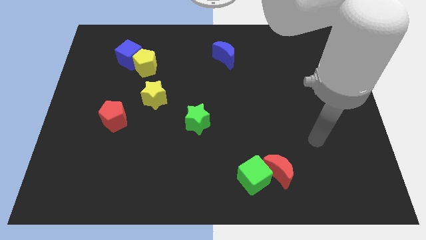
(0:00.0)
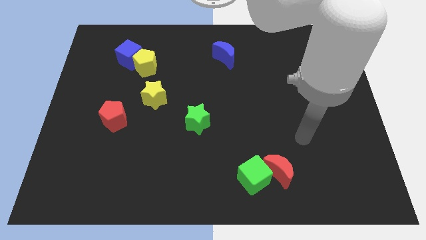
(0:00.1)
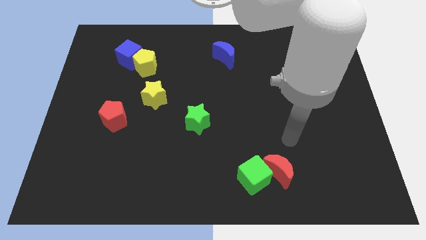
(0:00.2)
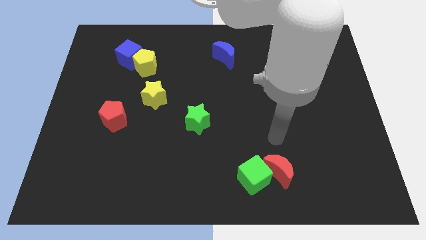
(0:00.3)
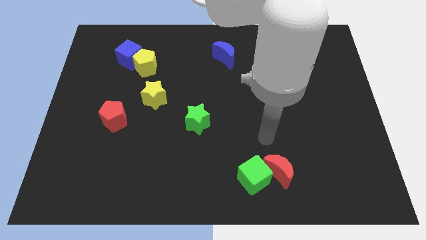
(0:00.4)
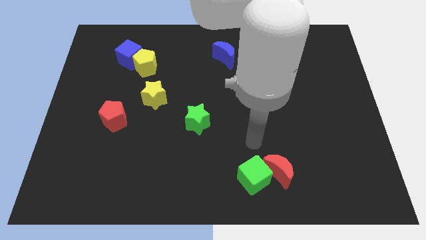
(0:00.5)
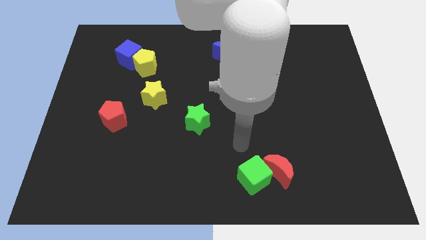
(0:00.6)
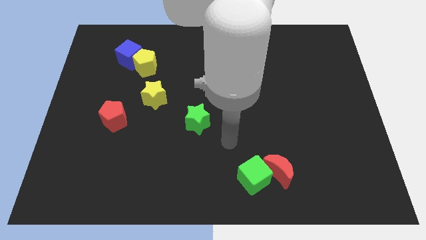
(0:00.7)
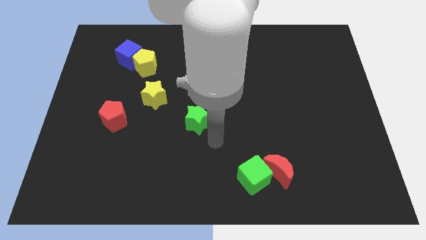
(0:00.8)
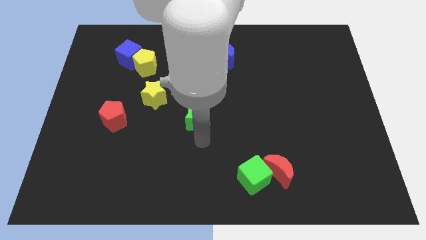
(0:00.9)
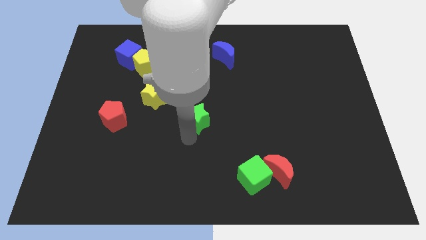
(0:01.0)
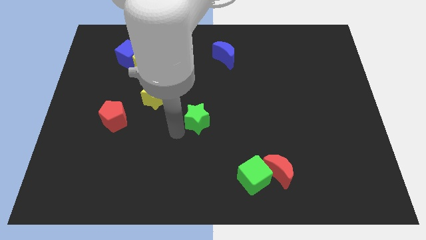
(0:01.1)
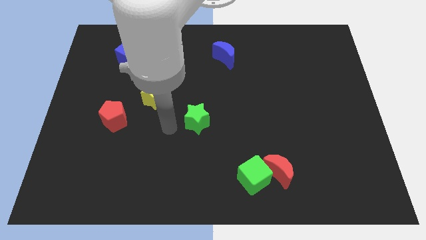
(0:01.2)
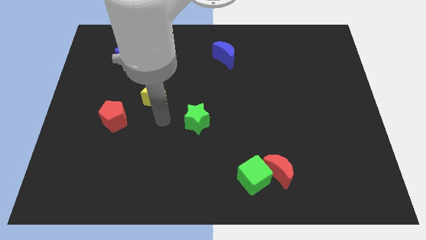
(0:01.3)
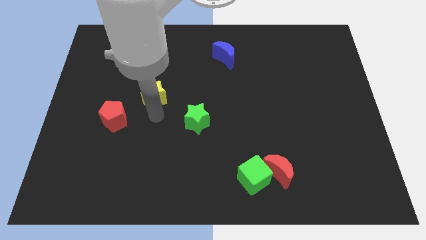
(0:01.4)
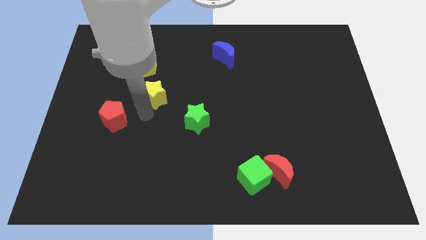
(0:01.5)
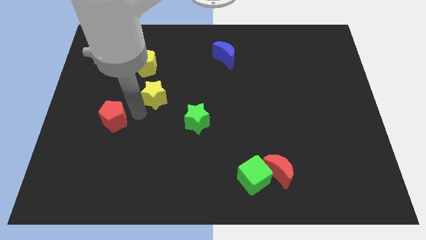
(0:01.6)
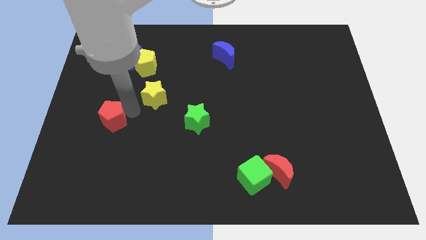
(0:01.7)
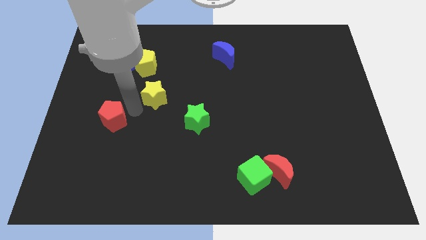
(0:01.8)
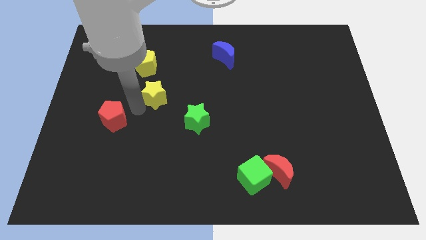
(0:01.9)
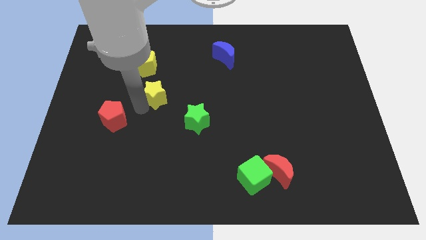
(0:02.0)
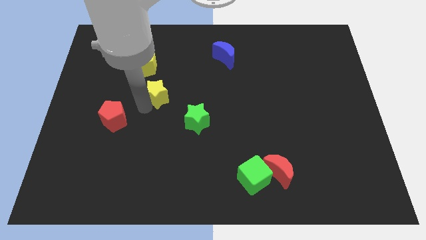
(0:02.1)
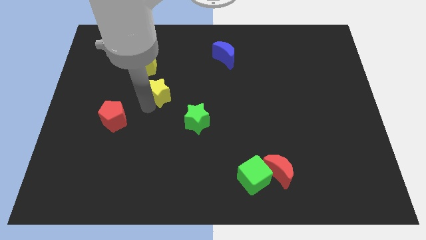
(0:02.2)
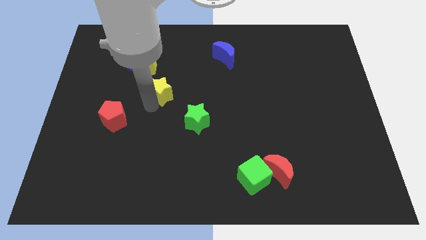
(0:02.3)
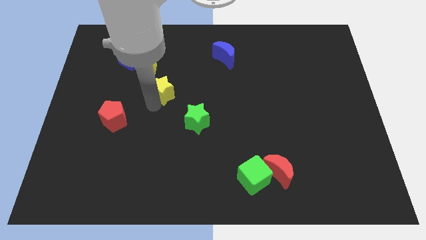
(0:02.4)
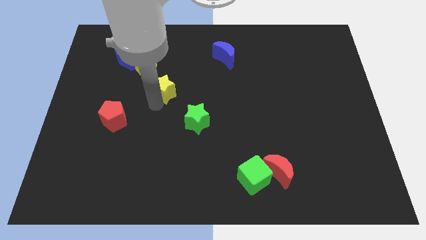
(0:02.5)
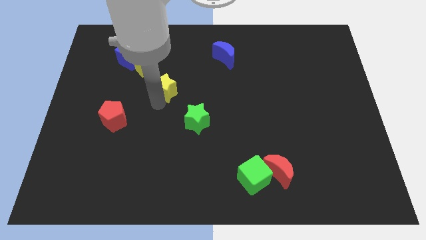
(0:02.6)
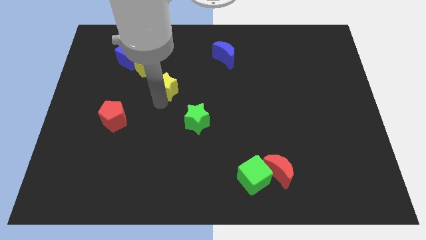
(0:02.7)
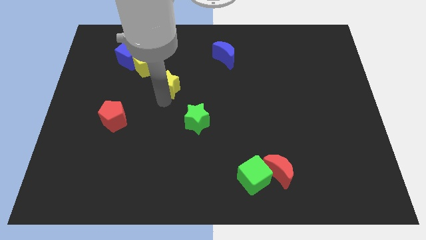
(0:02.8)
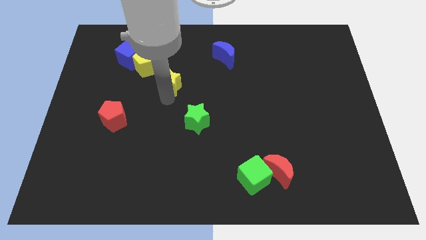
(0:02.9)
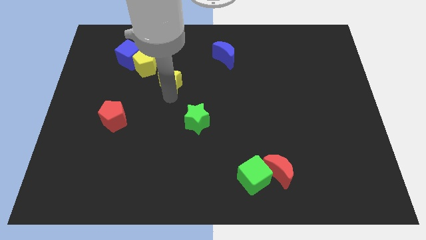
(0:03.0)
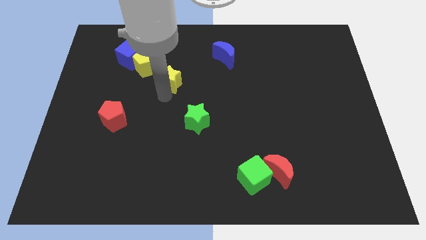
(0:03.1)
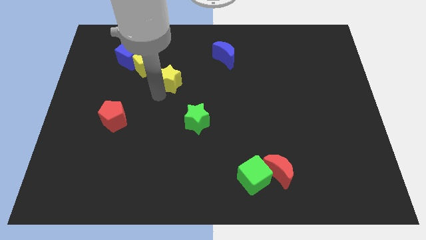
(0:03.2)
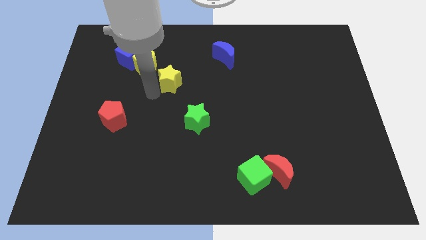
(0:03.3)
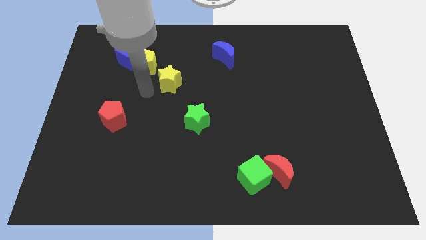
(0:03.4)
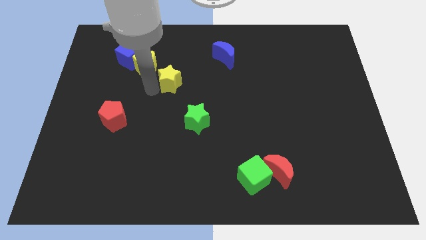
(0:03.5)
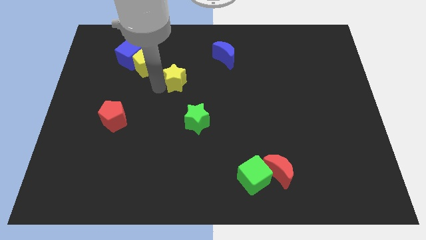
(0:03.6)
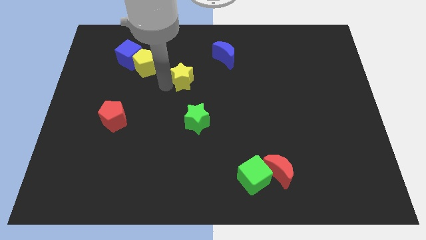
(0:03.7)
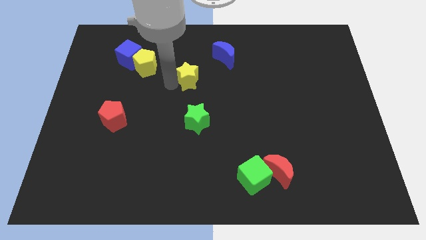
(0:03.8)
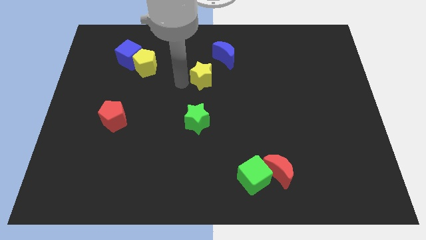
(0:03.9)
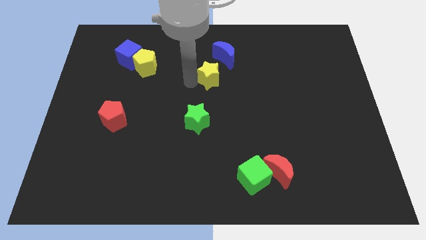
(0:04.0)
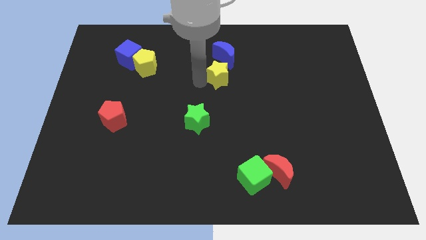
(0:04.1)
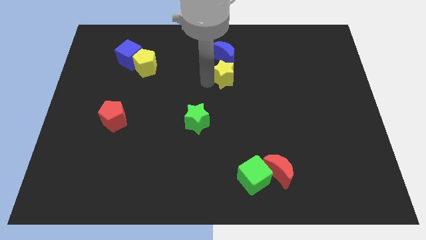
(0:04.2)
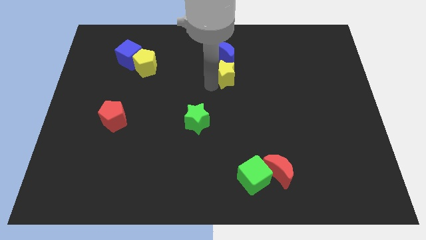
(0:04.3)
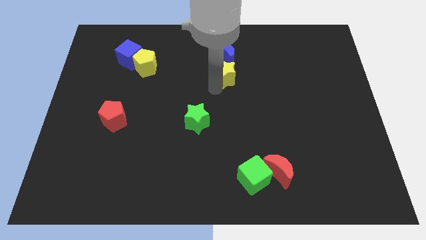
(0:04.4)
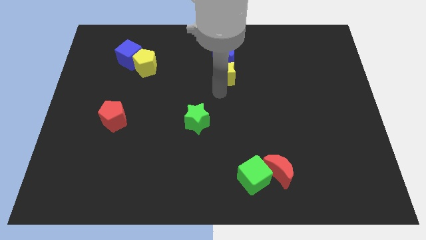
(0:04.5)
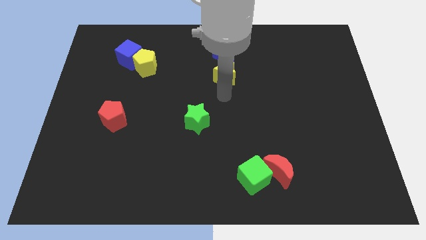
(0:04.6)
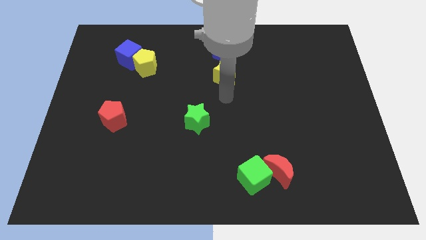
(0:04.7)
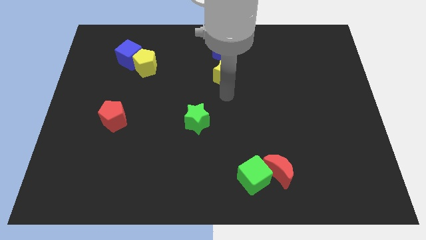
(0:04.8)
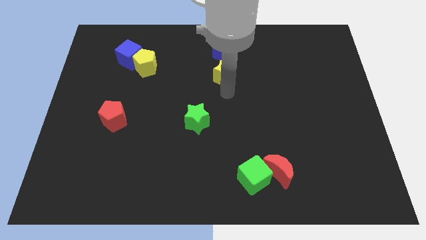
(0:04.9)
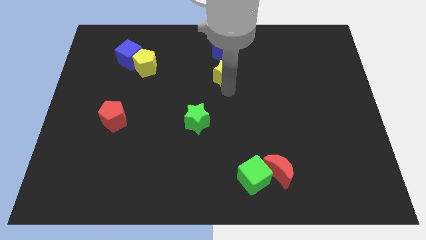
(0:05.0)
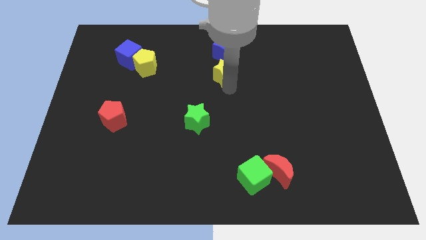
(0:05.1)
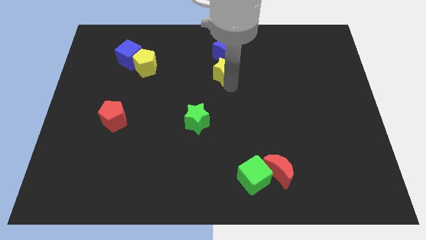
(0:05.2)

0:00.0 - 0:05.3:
push the yellow star next to the blue moon
